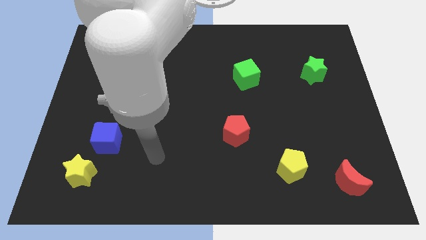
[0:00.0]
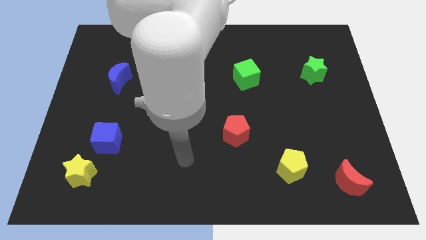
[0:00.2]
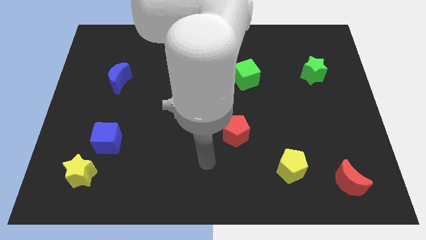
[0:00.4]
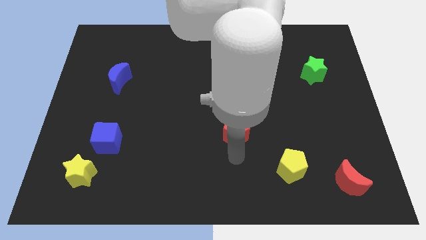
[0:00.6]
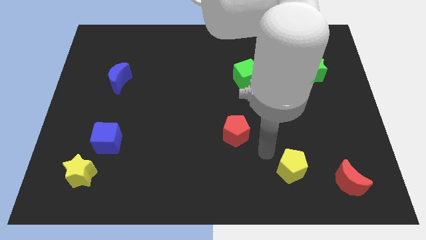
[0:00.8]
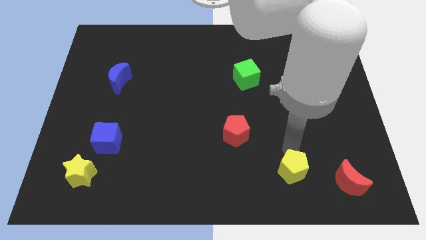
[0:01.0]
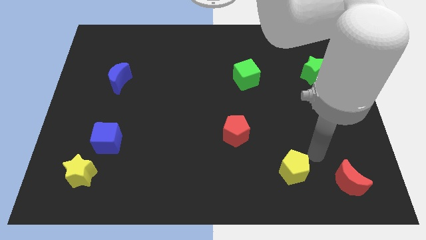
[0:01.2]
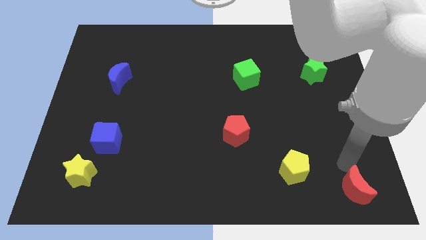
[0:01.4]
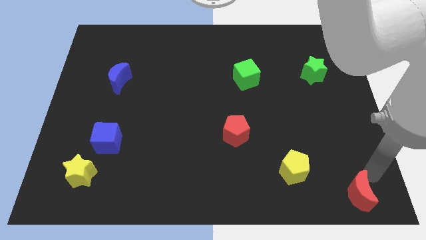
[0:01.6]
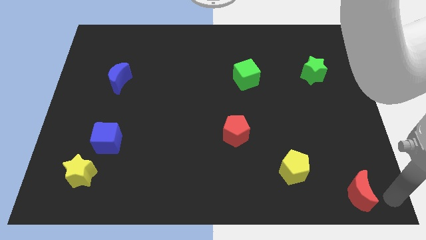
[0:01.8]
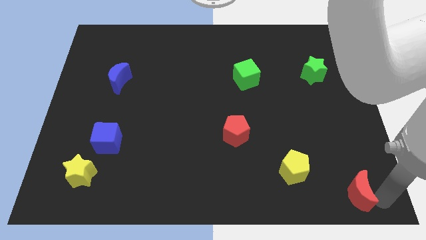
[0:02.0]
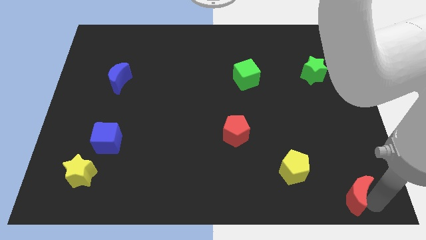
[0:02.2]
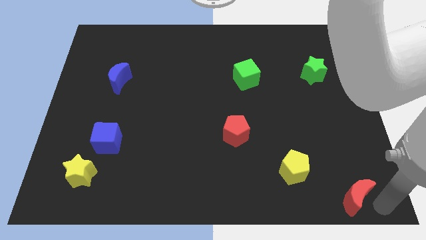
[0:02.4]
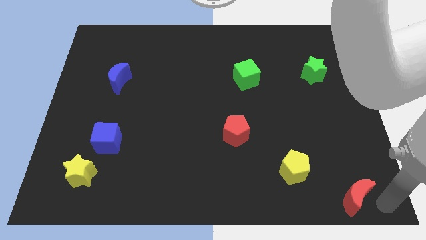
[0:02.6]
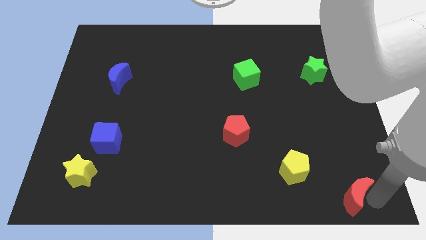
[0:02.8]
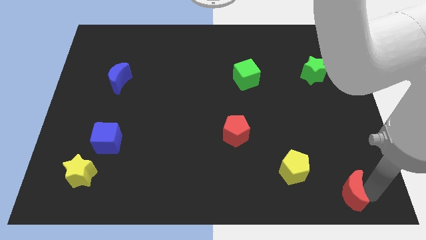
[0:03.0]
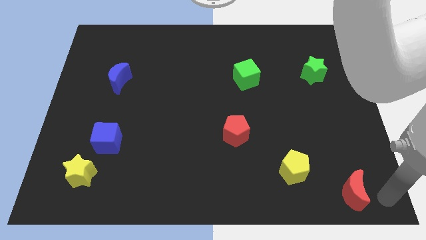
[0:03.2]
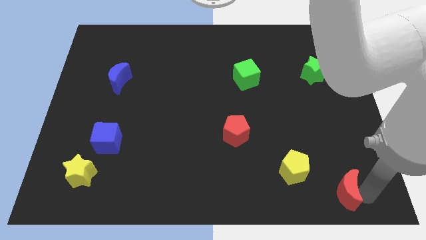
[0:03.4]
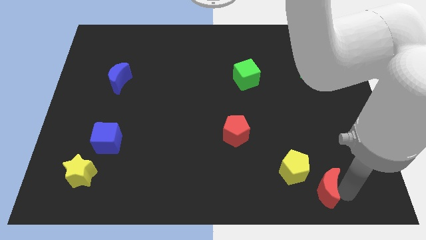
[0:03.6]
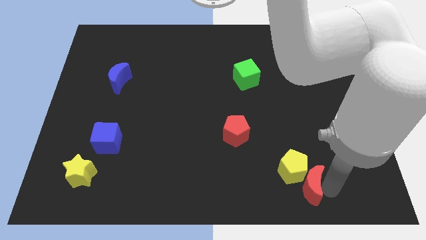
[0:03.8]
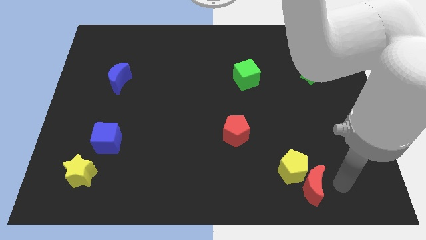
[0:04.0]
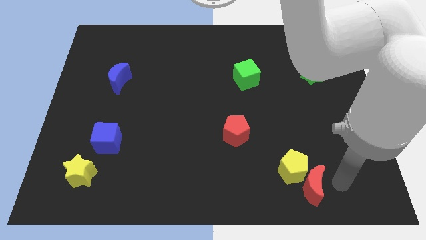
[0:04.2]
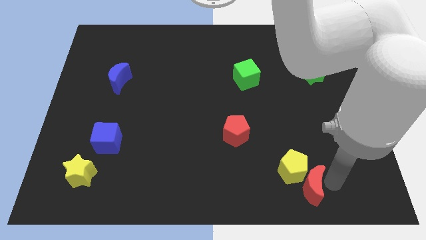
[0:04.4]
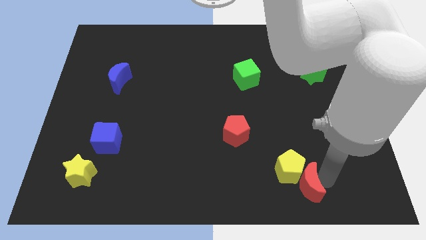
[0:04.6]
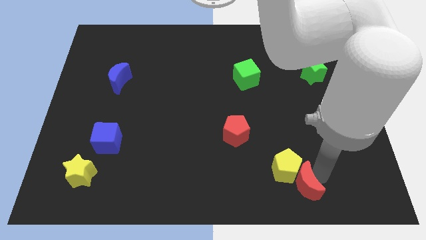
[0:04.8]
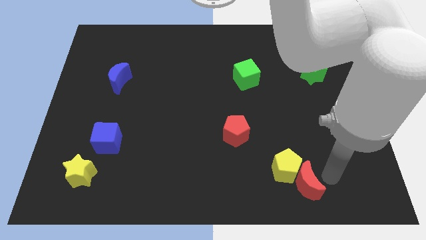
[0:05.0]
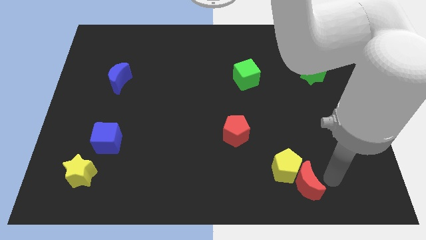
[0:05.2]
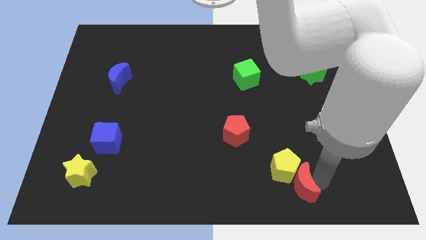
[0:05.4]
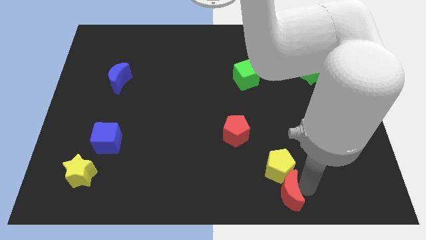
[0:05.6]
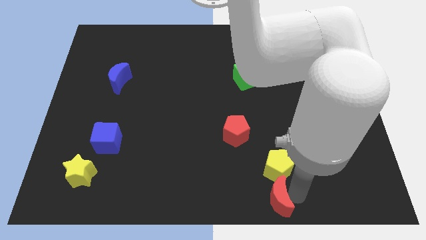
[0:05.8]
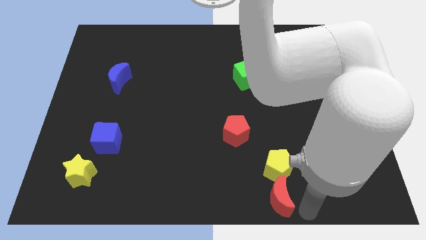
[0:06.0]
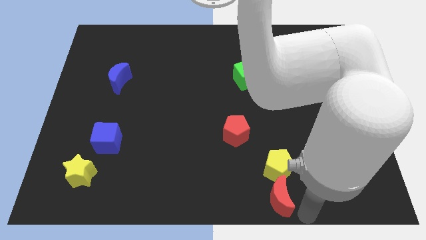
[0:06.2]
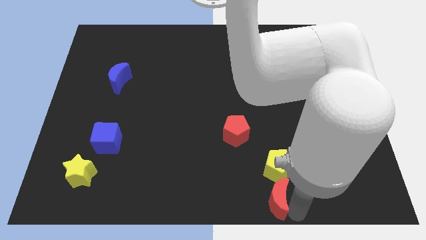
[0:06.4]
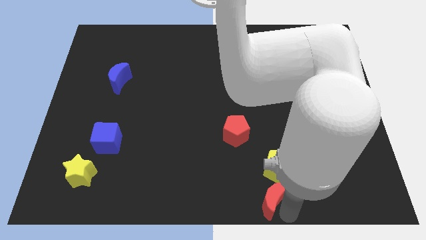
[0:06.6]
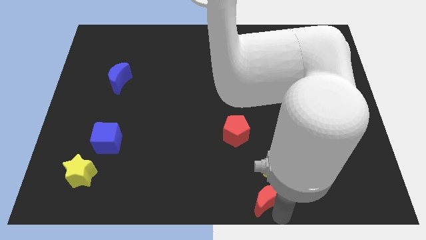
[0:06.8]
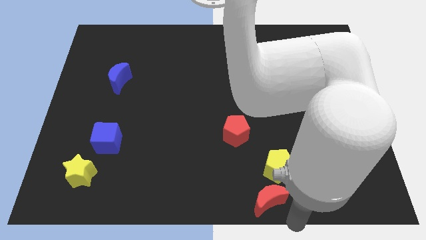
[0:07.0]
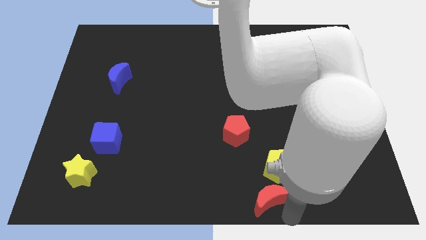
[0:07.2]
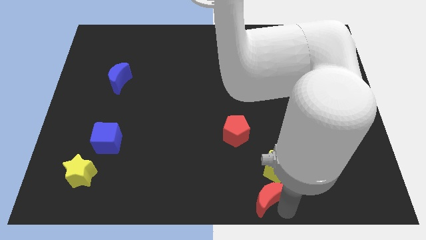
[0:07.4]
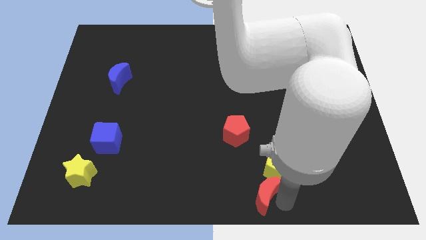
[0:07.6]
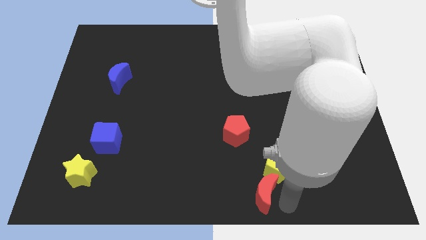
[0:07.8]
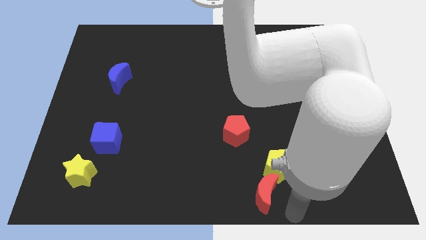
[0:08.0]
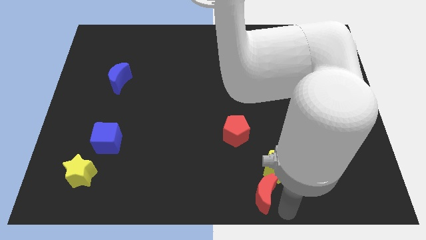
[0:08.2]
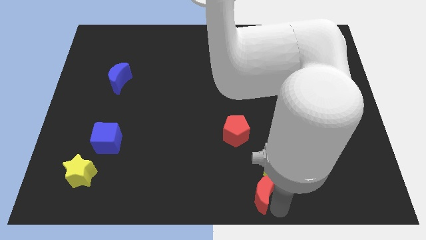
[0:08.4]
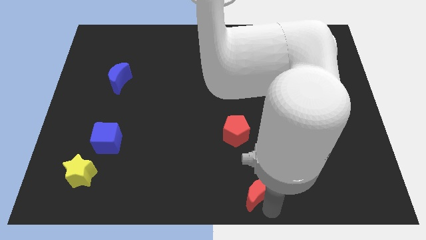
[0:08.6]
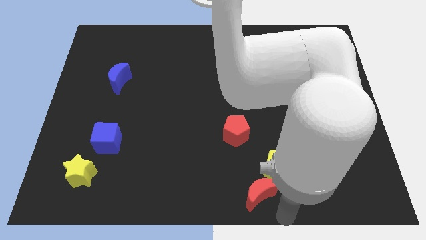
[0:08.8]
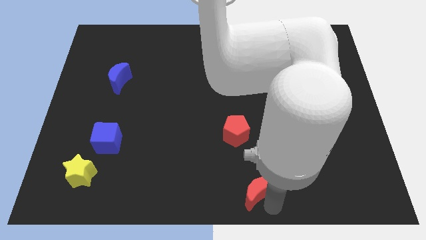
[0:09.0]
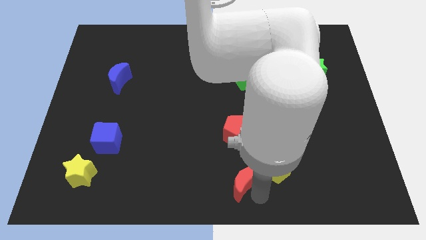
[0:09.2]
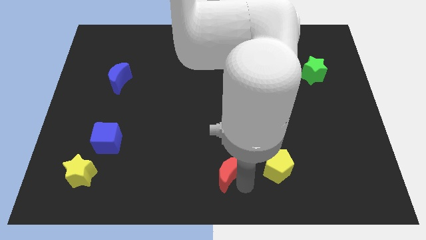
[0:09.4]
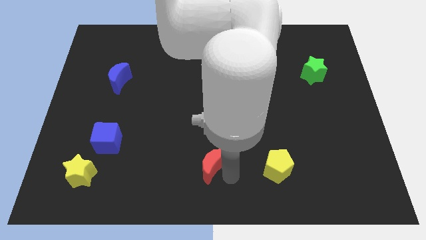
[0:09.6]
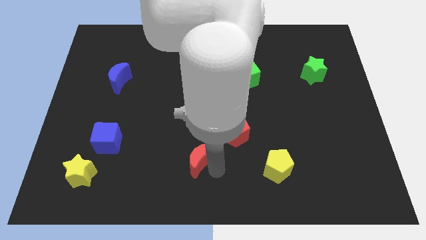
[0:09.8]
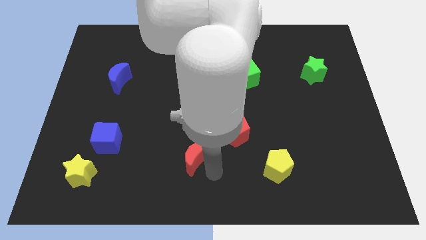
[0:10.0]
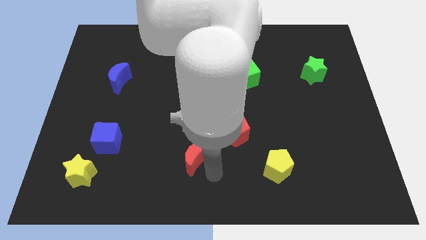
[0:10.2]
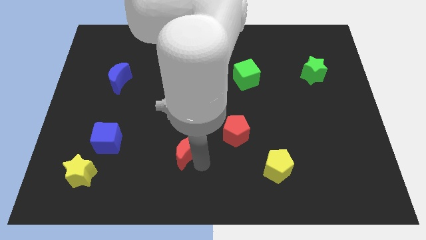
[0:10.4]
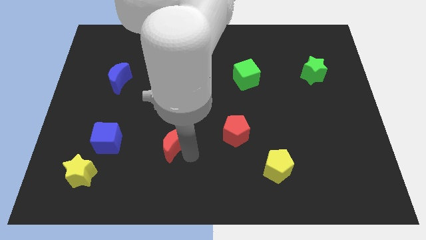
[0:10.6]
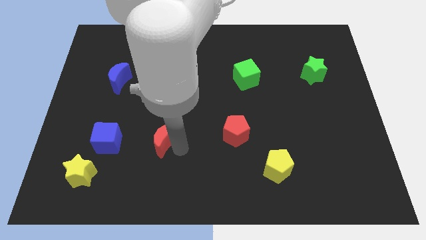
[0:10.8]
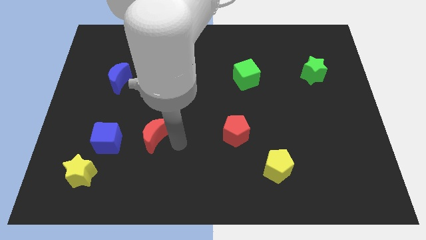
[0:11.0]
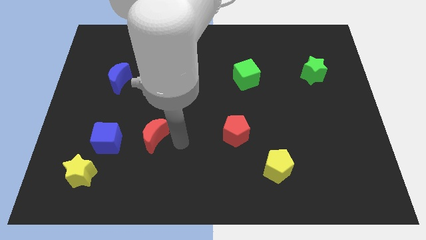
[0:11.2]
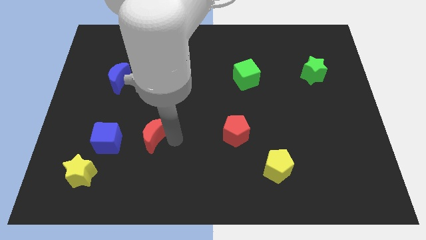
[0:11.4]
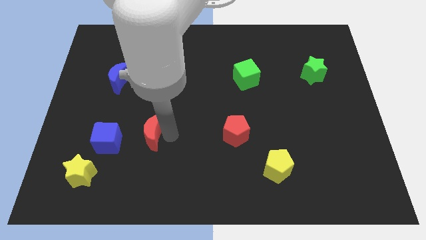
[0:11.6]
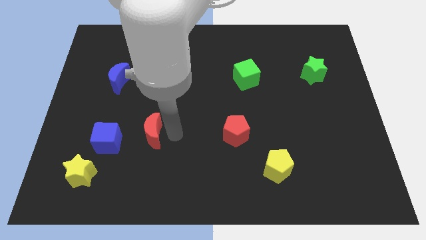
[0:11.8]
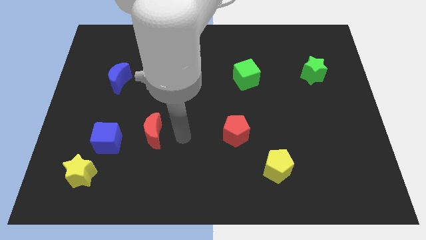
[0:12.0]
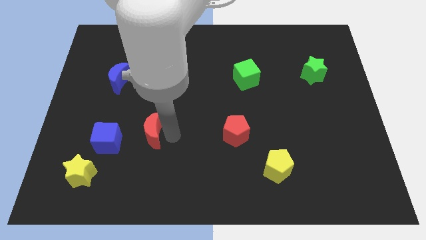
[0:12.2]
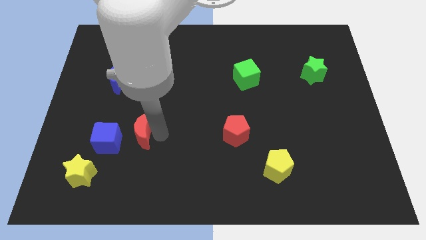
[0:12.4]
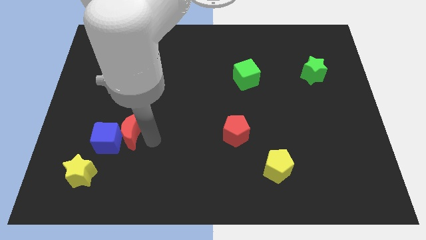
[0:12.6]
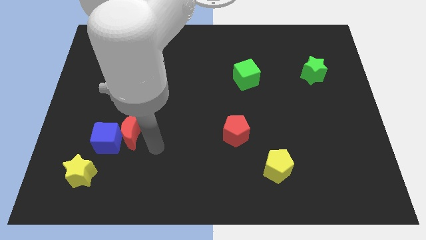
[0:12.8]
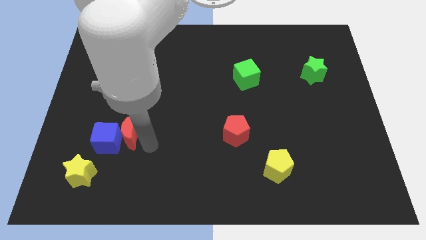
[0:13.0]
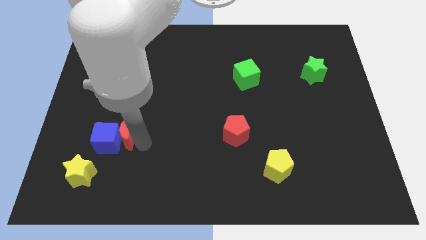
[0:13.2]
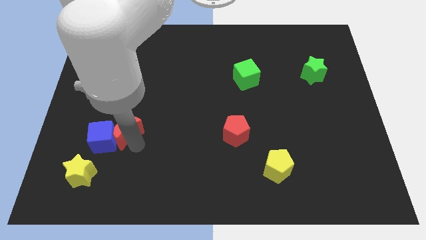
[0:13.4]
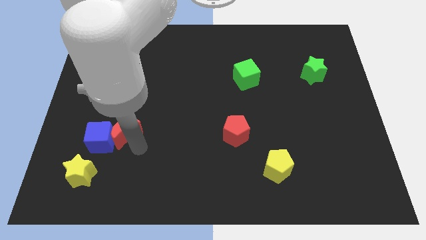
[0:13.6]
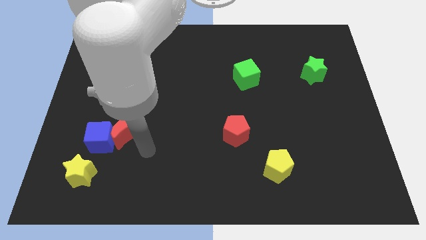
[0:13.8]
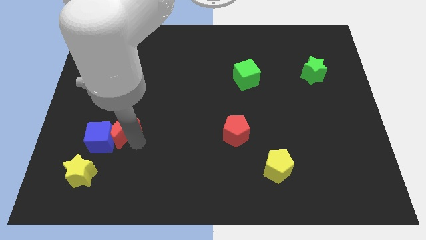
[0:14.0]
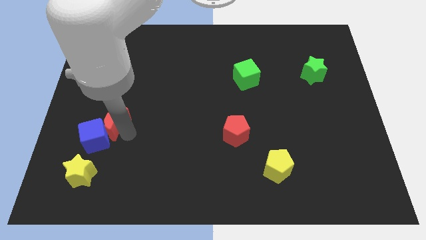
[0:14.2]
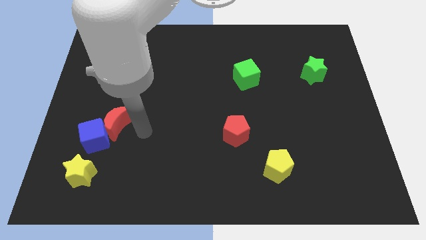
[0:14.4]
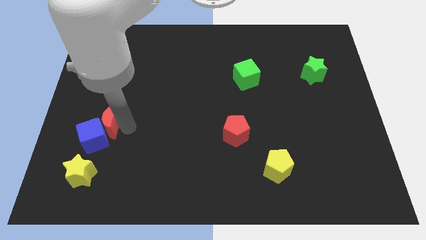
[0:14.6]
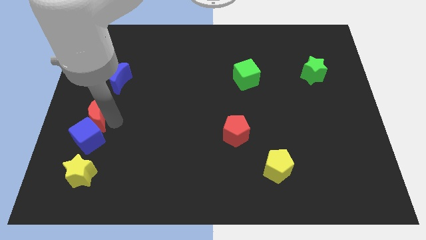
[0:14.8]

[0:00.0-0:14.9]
push the red moon to the center left
